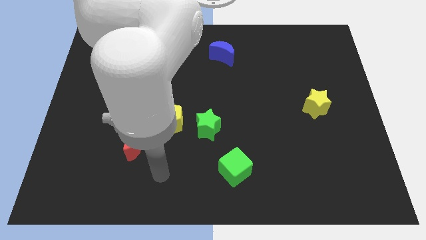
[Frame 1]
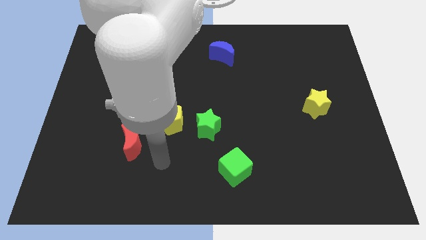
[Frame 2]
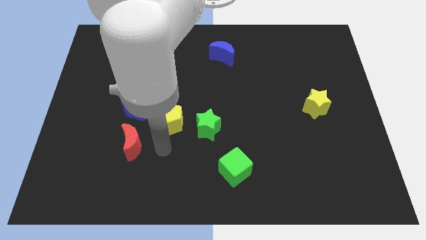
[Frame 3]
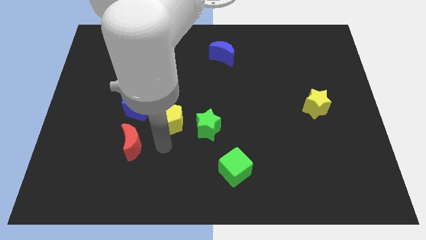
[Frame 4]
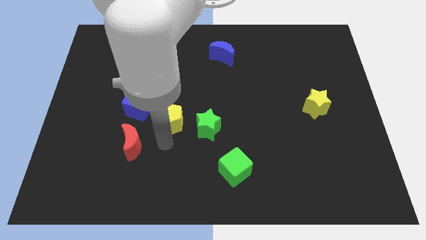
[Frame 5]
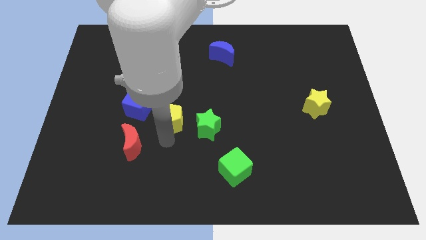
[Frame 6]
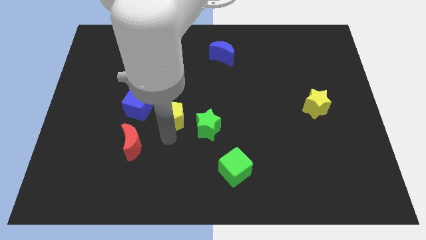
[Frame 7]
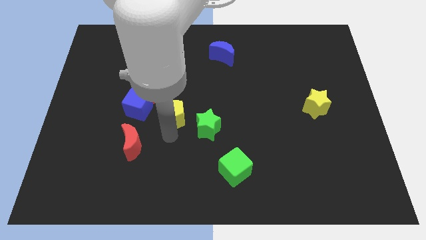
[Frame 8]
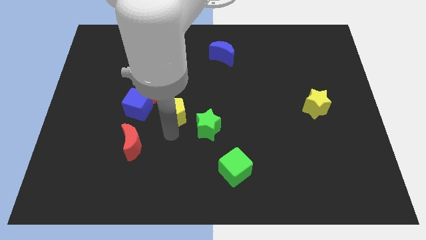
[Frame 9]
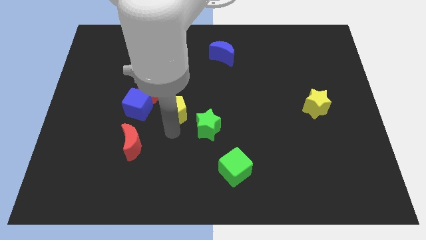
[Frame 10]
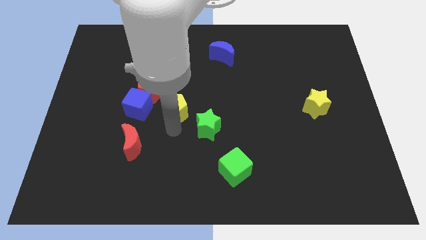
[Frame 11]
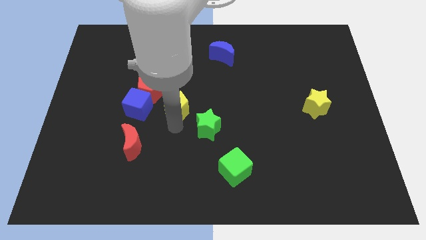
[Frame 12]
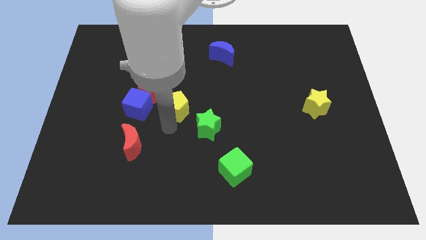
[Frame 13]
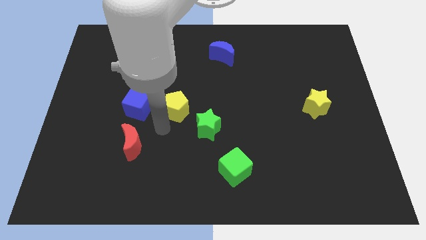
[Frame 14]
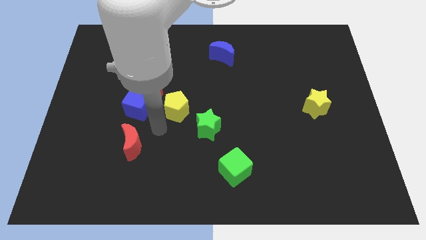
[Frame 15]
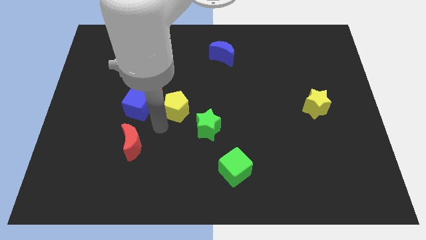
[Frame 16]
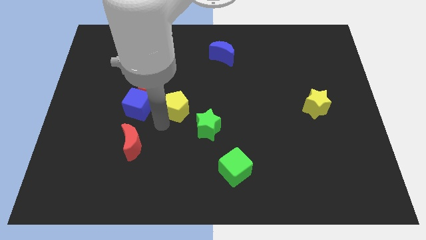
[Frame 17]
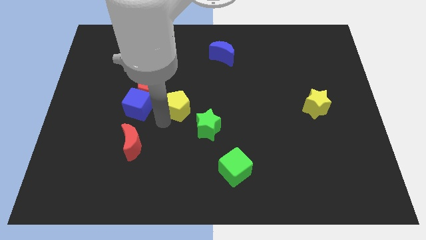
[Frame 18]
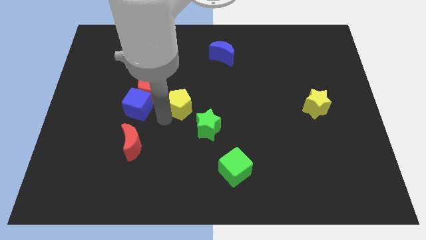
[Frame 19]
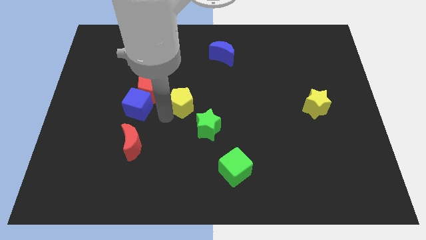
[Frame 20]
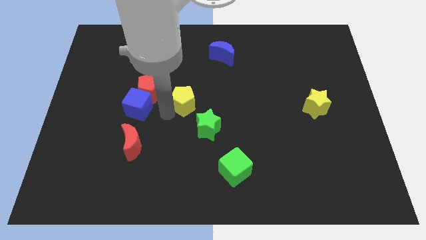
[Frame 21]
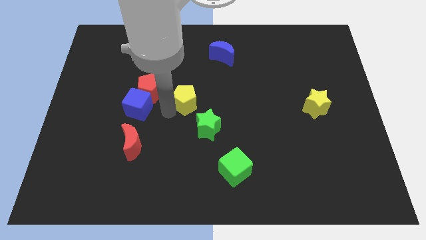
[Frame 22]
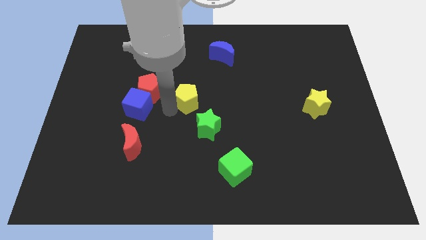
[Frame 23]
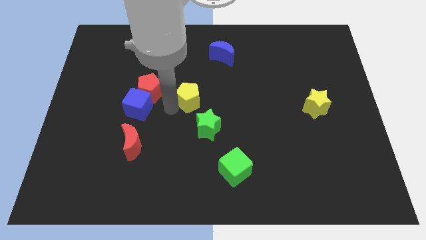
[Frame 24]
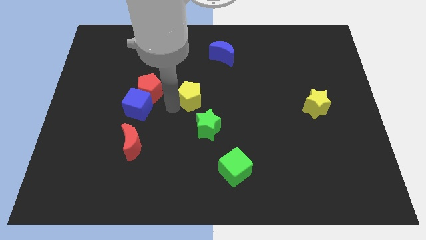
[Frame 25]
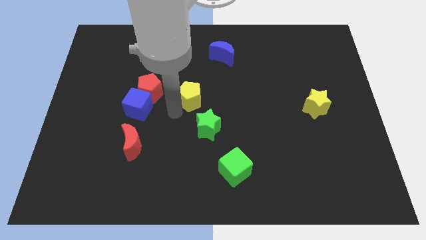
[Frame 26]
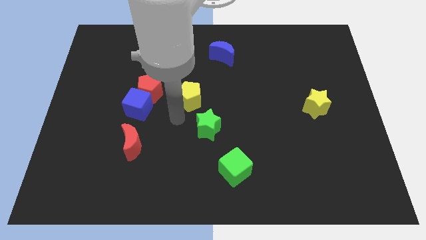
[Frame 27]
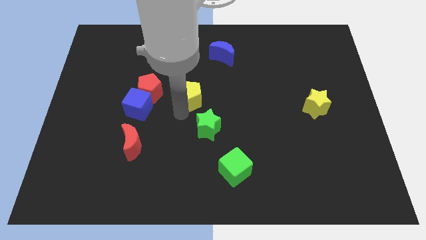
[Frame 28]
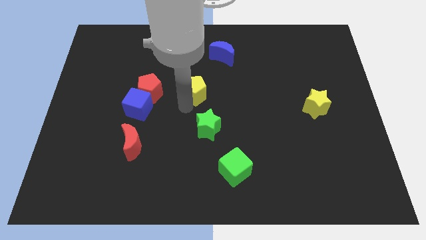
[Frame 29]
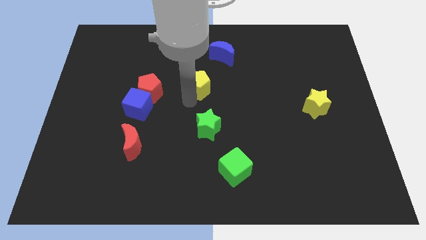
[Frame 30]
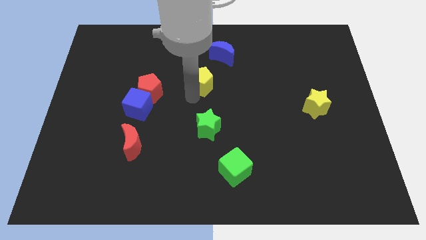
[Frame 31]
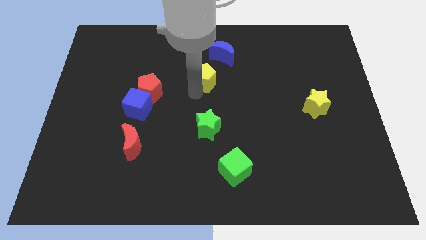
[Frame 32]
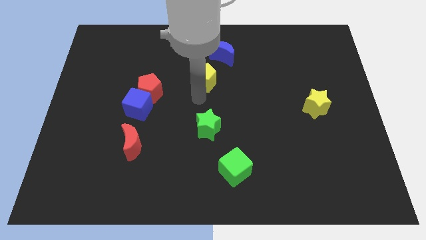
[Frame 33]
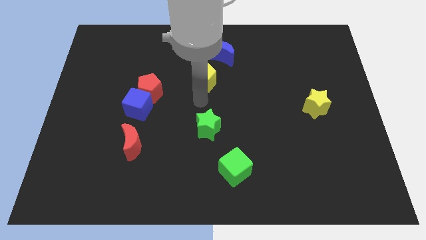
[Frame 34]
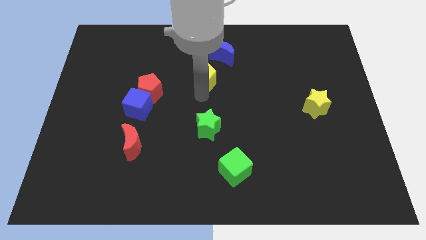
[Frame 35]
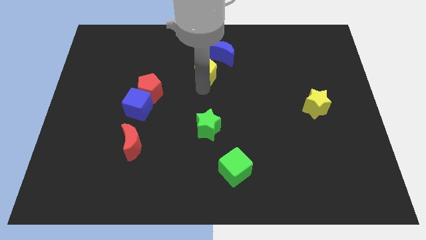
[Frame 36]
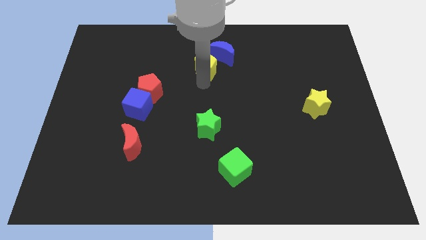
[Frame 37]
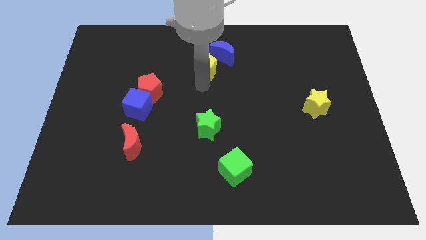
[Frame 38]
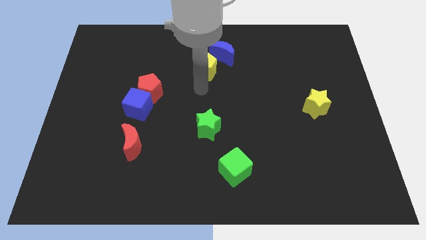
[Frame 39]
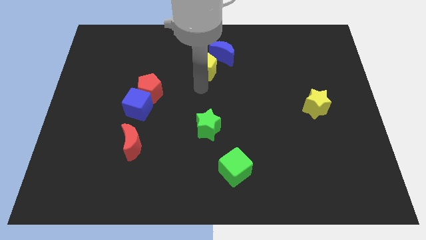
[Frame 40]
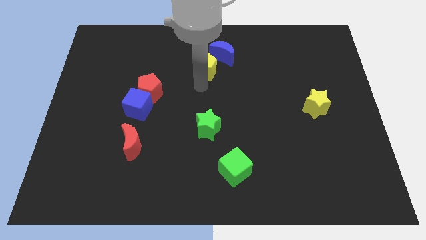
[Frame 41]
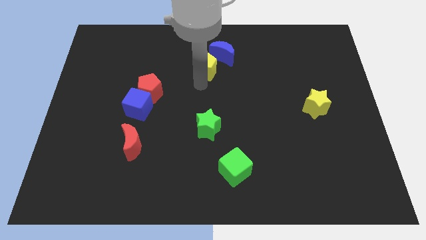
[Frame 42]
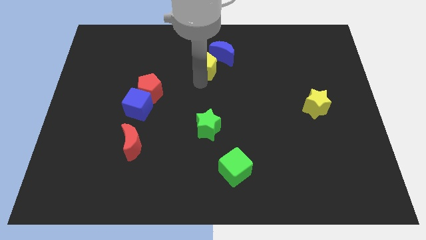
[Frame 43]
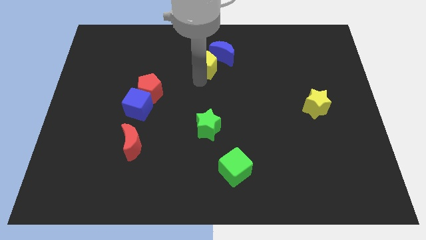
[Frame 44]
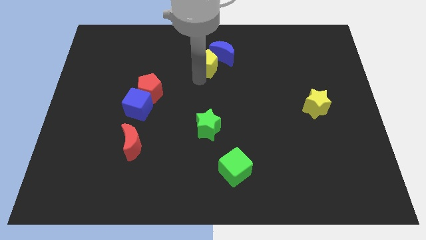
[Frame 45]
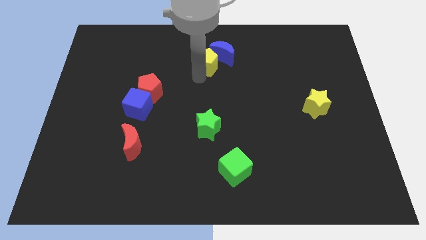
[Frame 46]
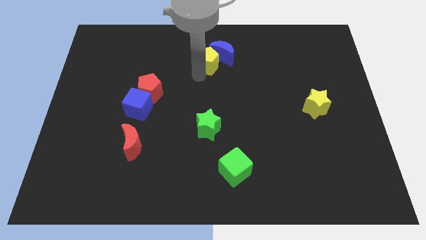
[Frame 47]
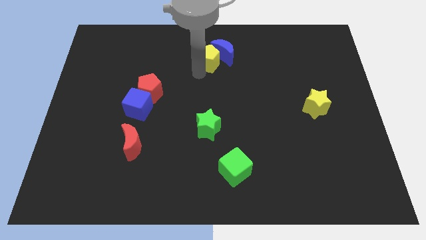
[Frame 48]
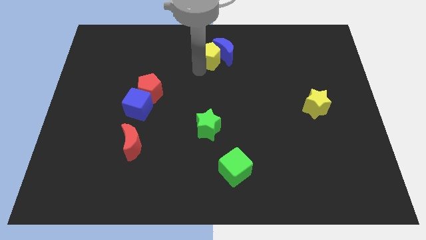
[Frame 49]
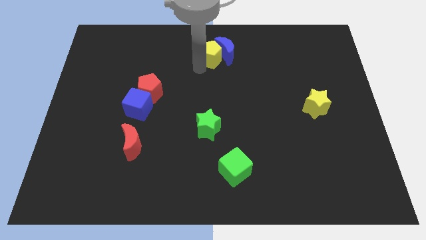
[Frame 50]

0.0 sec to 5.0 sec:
slide the yellow pentagon to the top

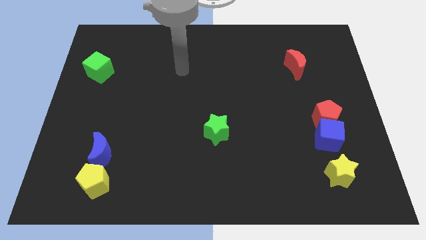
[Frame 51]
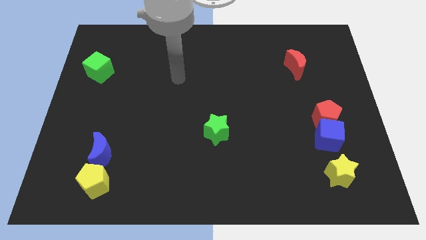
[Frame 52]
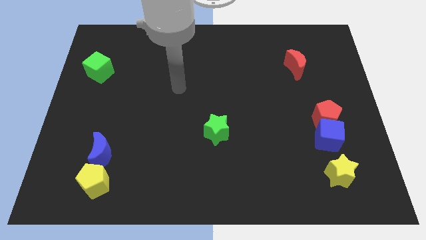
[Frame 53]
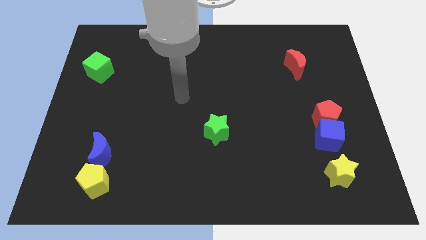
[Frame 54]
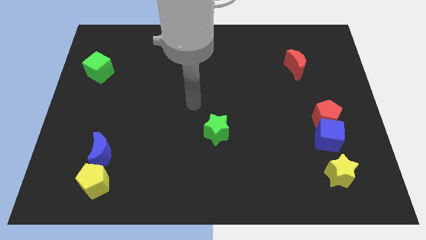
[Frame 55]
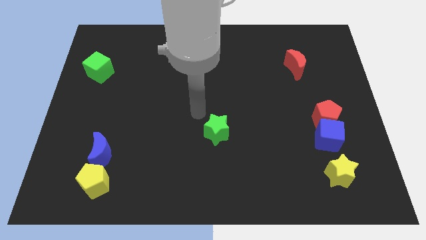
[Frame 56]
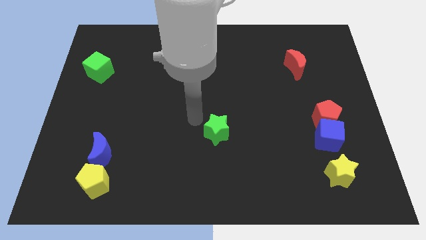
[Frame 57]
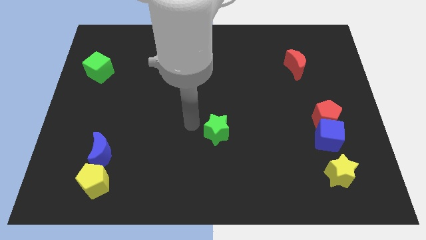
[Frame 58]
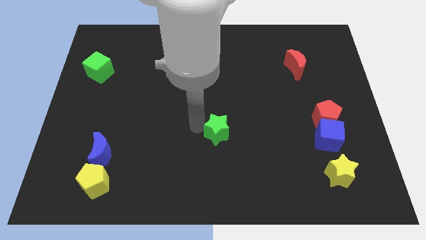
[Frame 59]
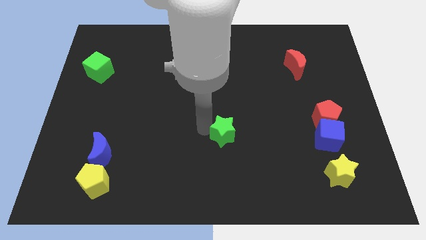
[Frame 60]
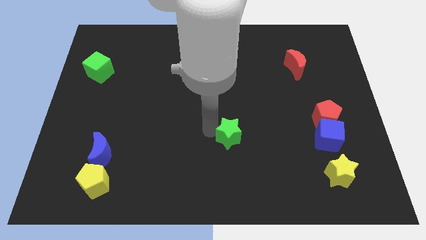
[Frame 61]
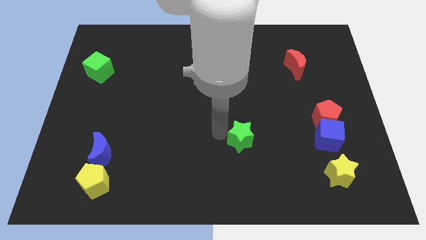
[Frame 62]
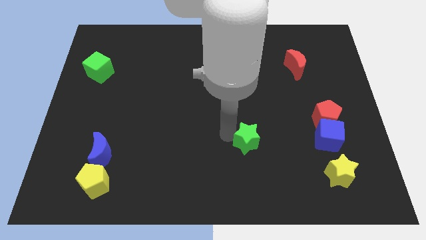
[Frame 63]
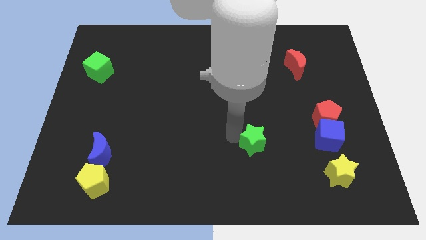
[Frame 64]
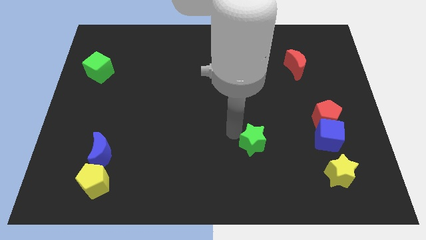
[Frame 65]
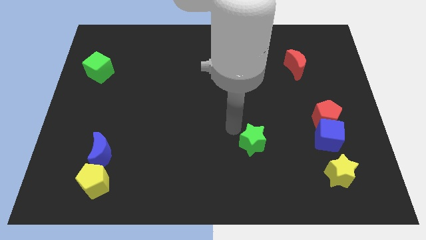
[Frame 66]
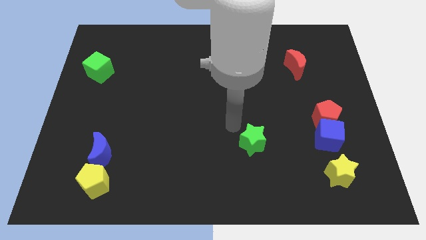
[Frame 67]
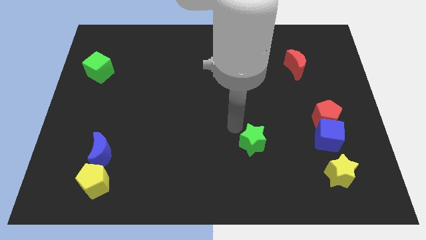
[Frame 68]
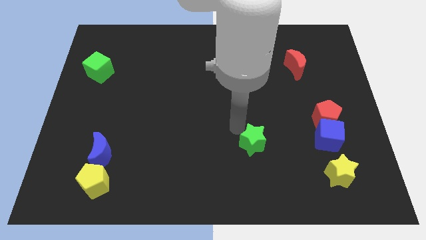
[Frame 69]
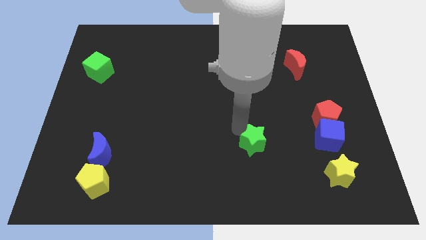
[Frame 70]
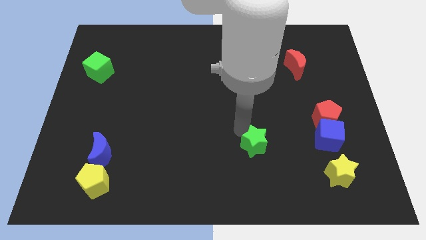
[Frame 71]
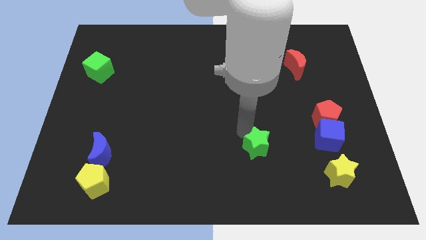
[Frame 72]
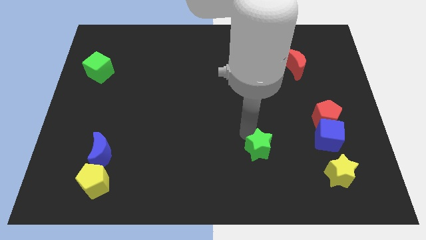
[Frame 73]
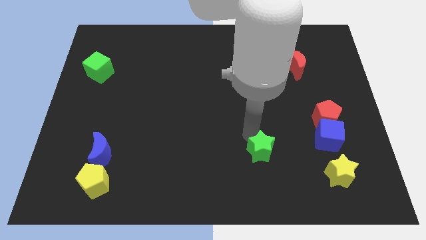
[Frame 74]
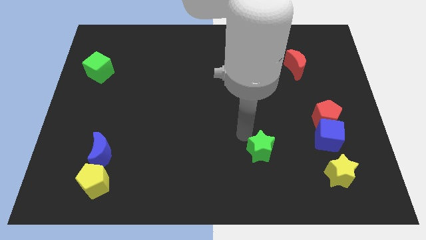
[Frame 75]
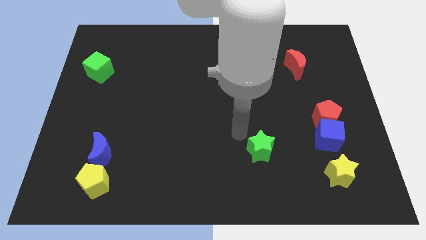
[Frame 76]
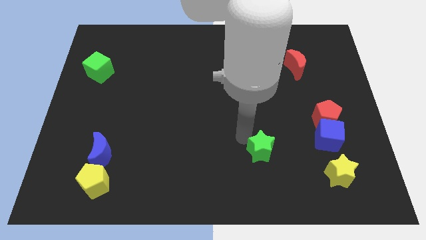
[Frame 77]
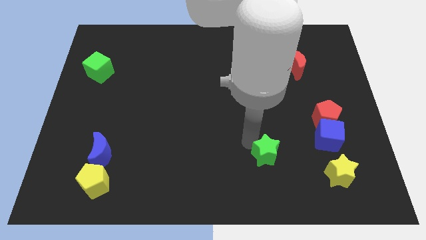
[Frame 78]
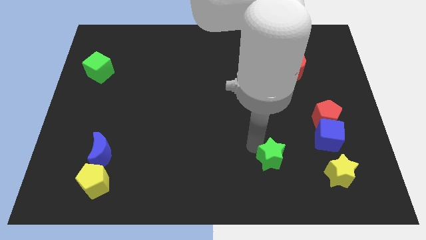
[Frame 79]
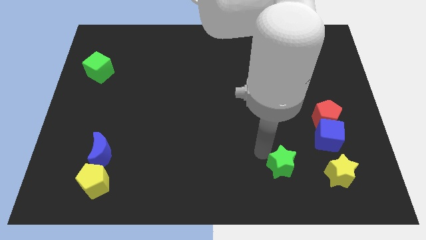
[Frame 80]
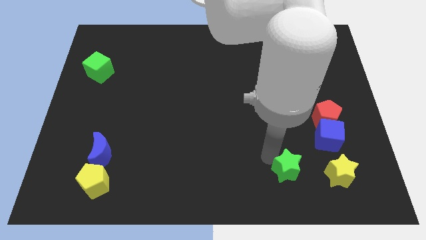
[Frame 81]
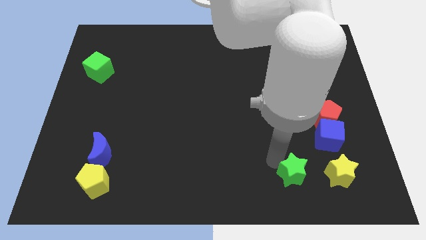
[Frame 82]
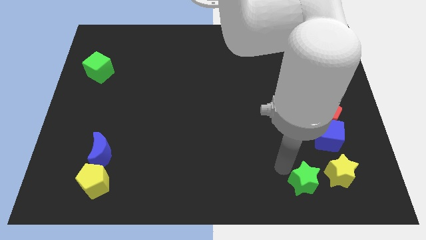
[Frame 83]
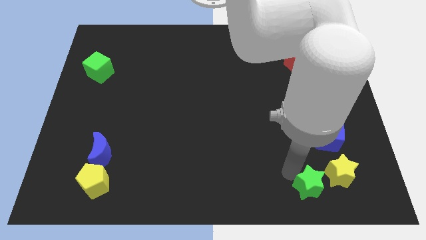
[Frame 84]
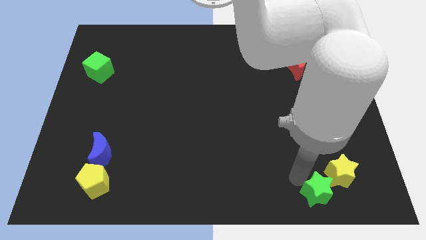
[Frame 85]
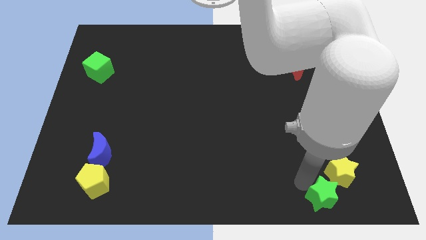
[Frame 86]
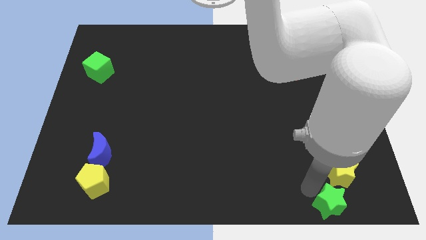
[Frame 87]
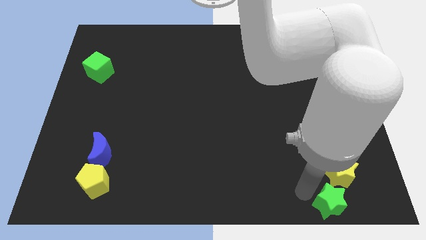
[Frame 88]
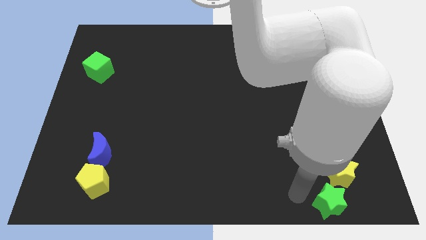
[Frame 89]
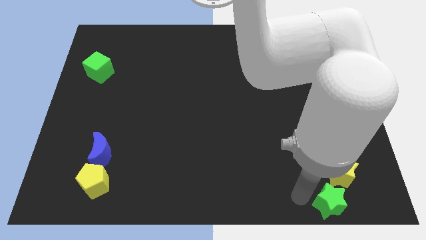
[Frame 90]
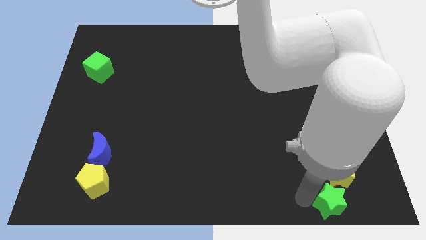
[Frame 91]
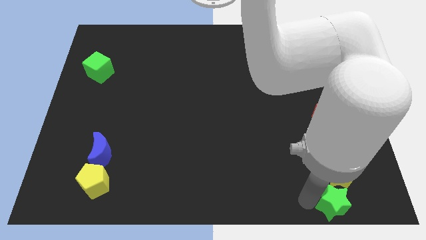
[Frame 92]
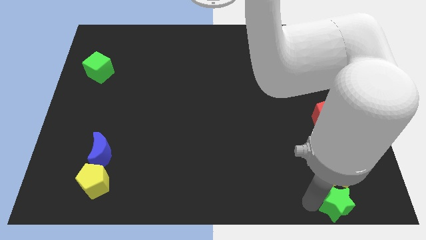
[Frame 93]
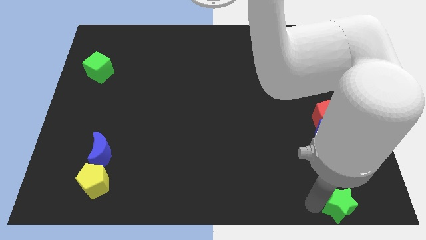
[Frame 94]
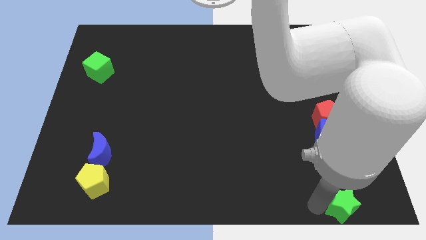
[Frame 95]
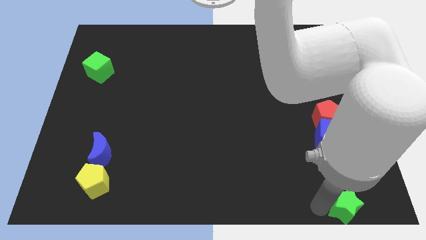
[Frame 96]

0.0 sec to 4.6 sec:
move the green star to the bottom right corner
